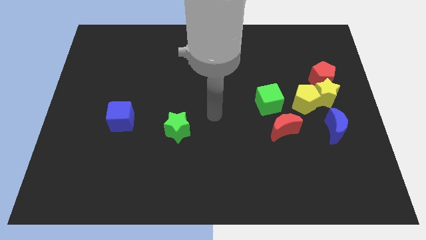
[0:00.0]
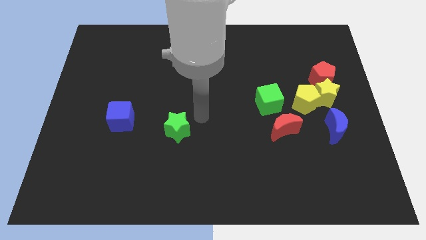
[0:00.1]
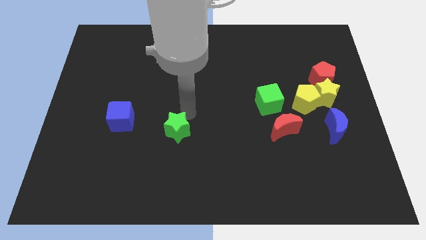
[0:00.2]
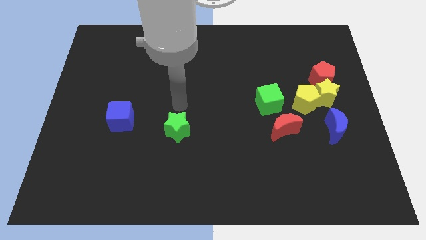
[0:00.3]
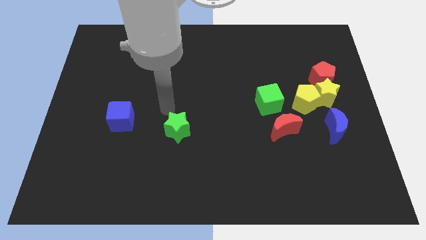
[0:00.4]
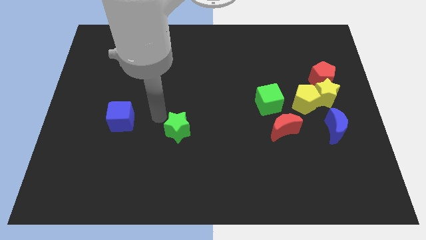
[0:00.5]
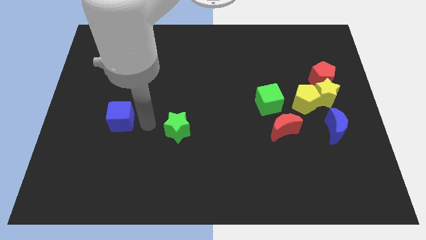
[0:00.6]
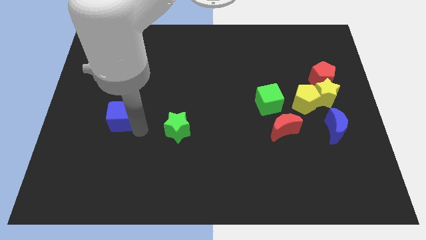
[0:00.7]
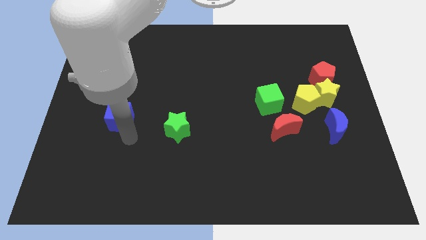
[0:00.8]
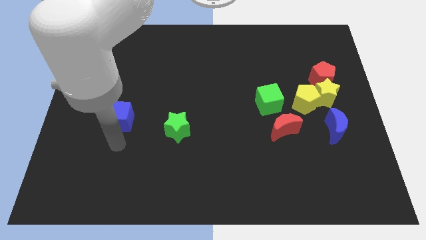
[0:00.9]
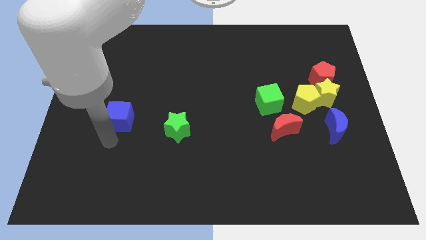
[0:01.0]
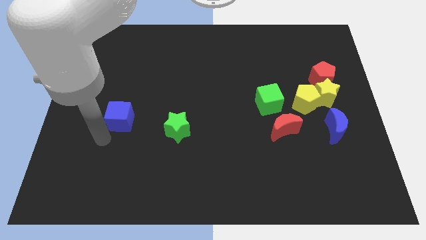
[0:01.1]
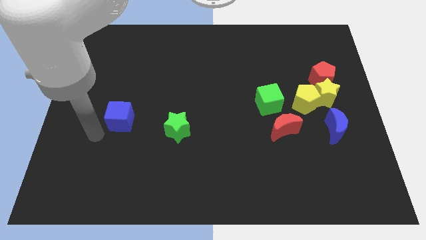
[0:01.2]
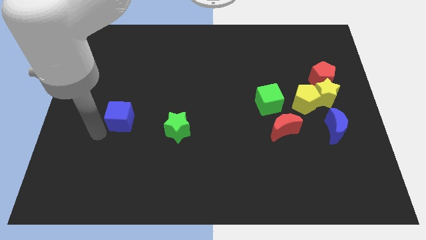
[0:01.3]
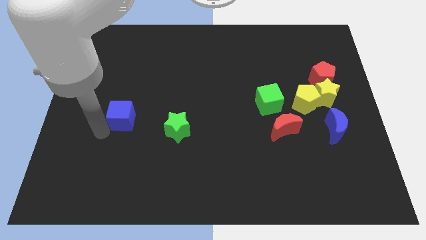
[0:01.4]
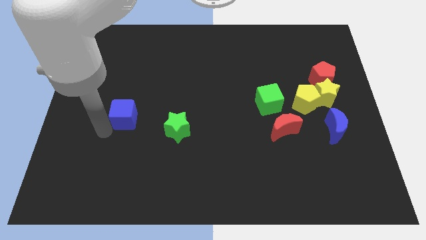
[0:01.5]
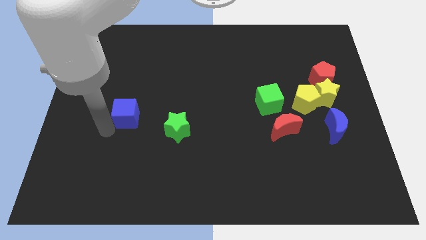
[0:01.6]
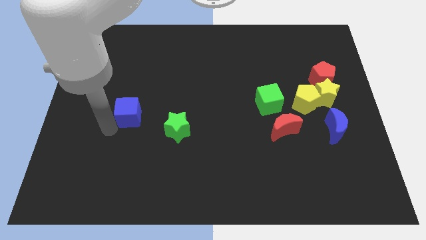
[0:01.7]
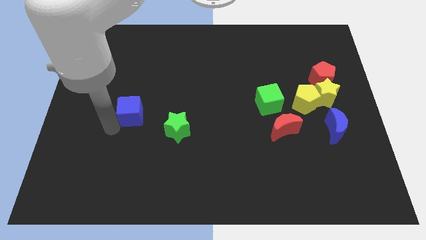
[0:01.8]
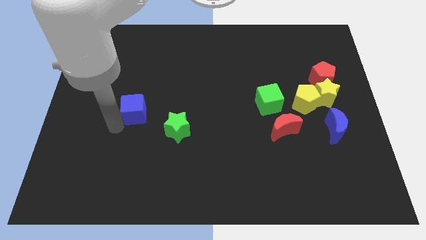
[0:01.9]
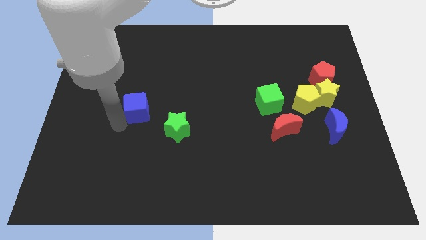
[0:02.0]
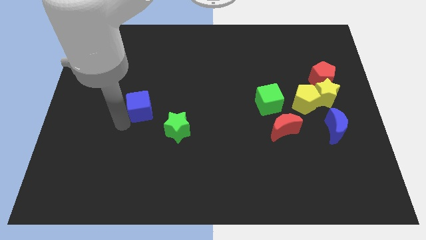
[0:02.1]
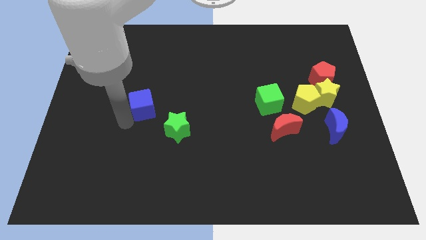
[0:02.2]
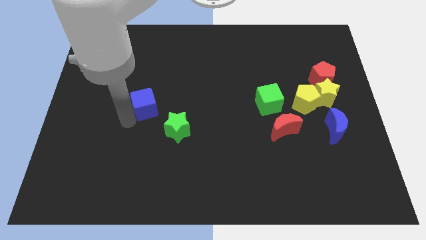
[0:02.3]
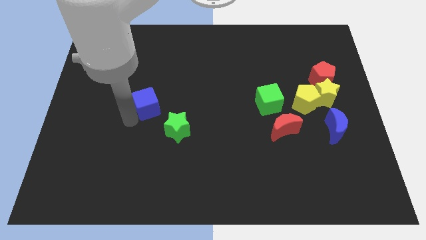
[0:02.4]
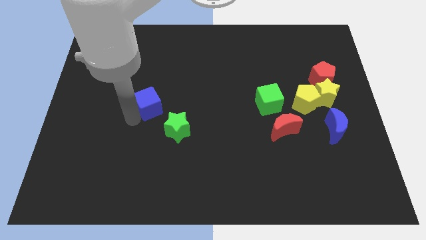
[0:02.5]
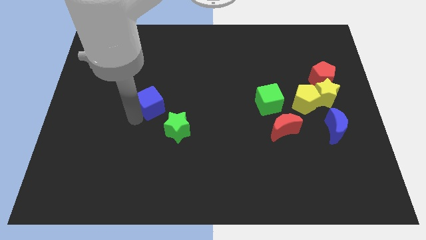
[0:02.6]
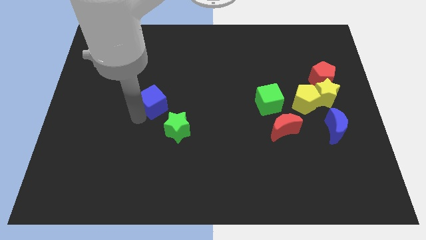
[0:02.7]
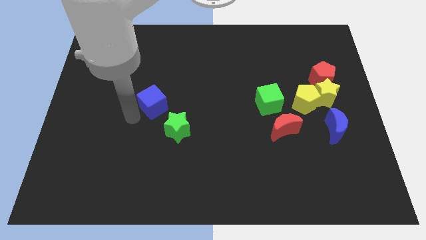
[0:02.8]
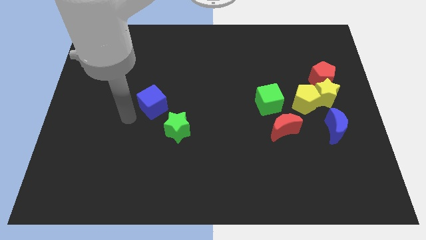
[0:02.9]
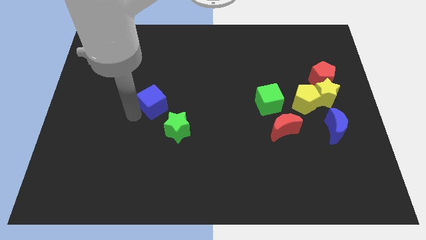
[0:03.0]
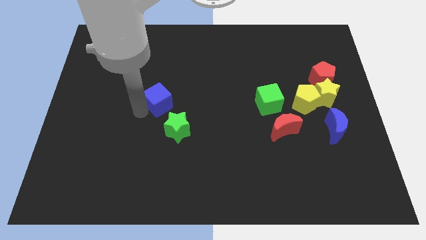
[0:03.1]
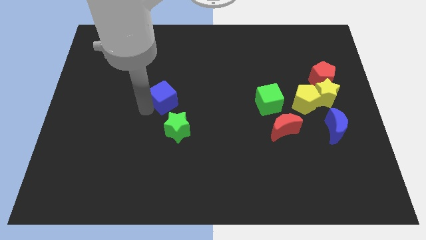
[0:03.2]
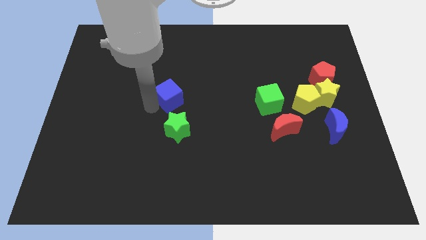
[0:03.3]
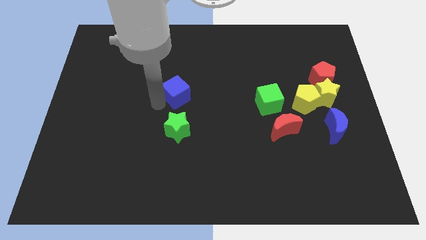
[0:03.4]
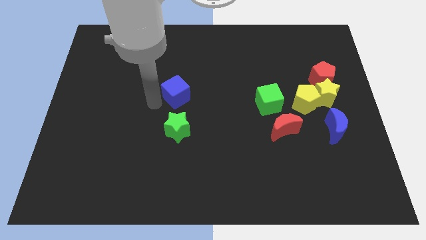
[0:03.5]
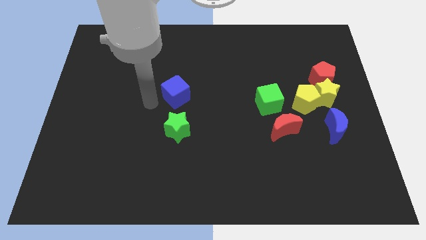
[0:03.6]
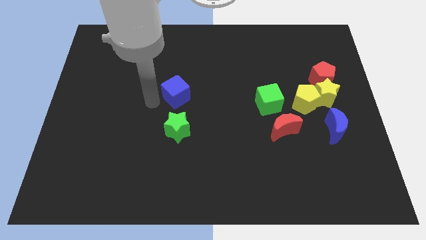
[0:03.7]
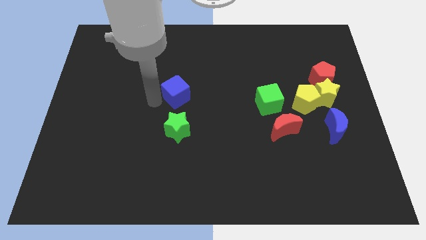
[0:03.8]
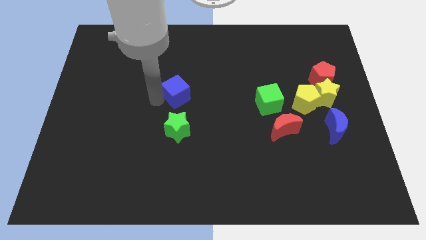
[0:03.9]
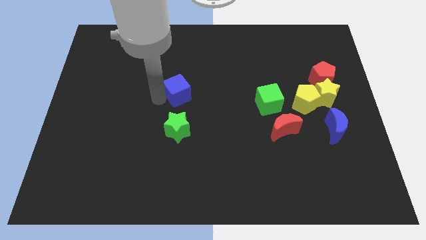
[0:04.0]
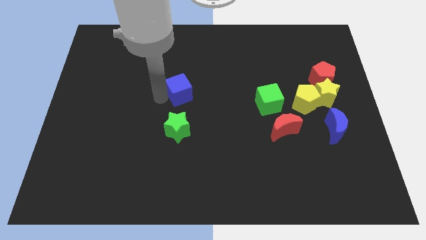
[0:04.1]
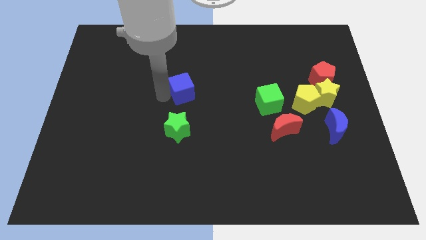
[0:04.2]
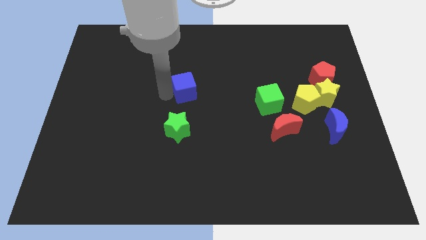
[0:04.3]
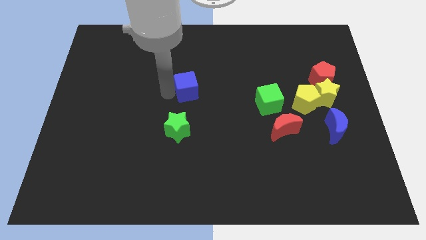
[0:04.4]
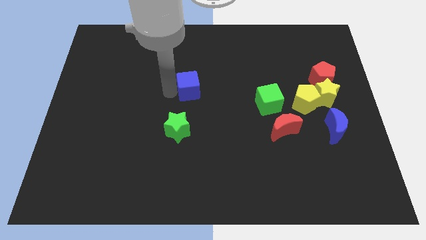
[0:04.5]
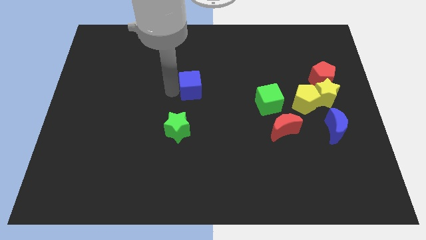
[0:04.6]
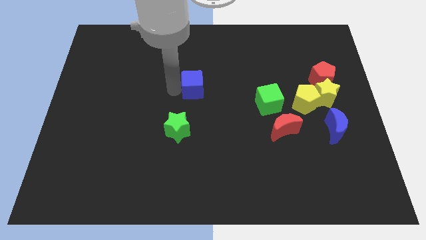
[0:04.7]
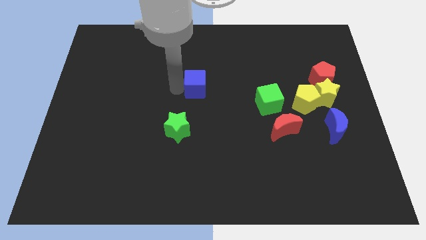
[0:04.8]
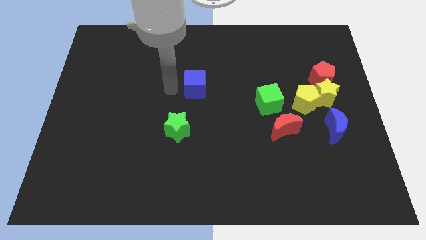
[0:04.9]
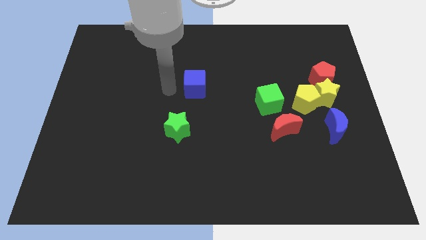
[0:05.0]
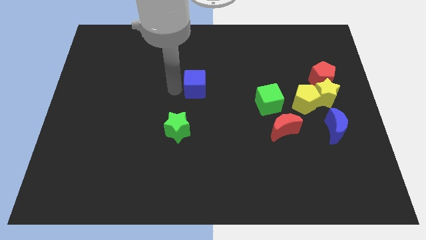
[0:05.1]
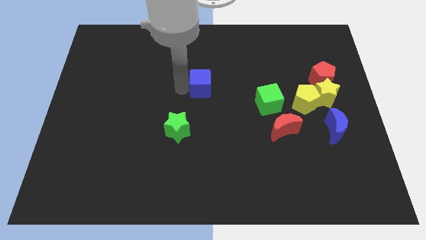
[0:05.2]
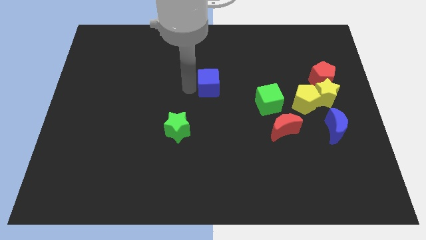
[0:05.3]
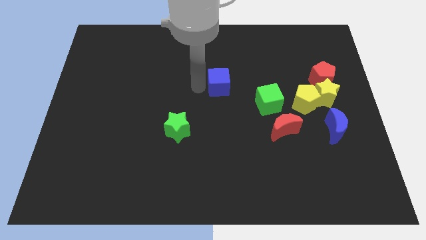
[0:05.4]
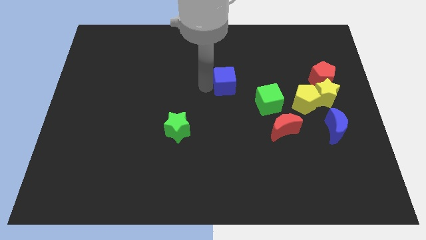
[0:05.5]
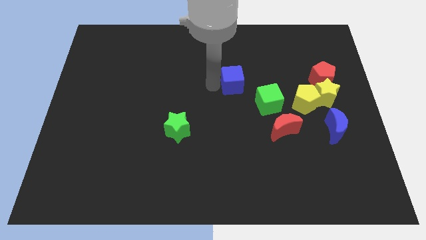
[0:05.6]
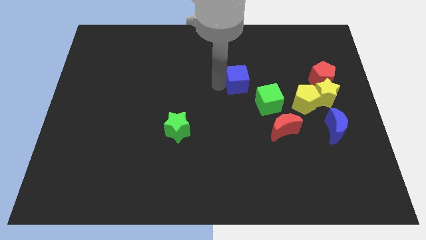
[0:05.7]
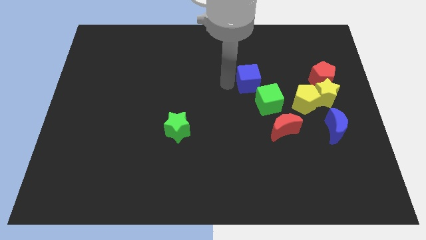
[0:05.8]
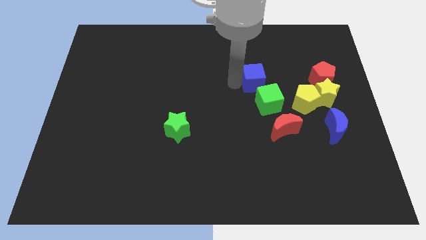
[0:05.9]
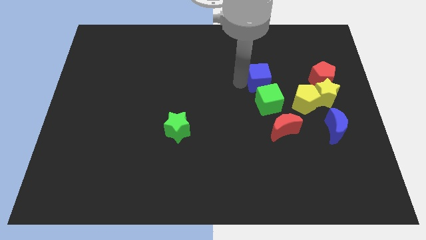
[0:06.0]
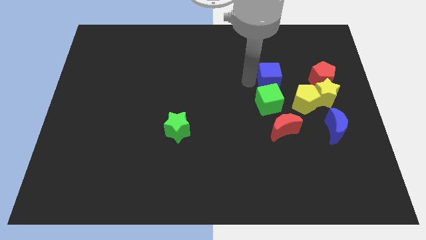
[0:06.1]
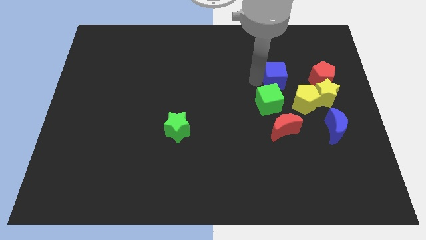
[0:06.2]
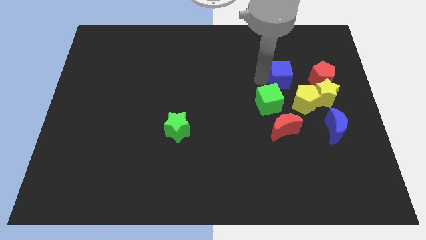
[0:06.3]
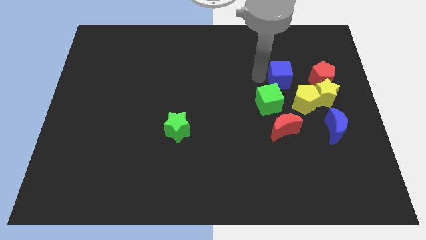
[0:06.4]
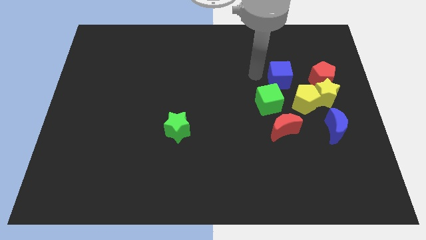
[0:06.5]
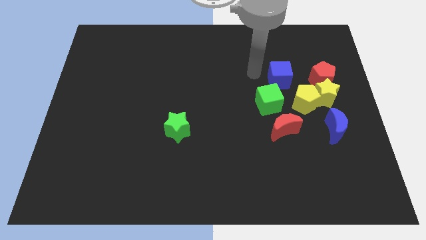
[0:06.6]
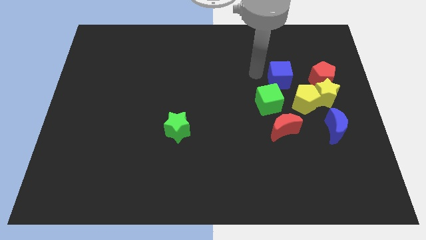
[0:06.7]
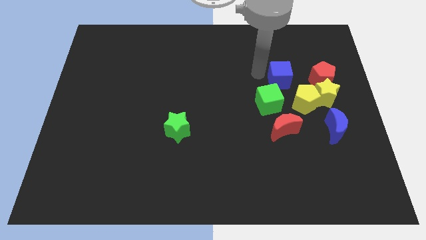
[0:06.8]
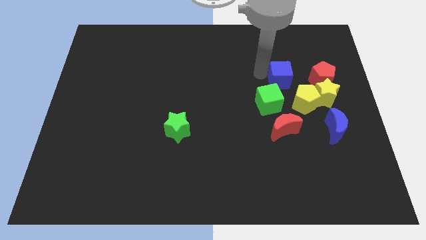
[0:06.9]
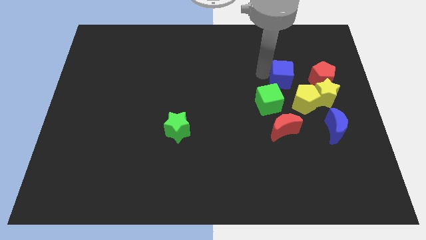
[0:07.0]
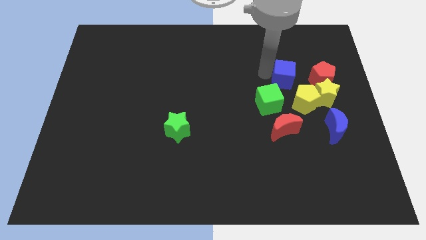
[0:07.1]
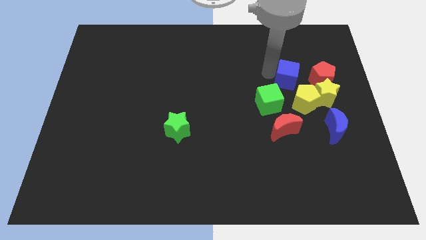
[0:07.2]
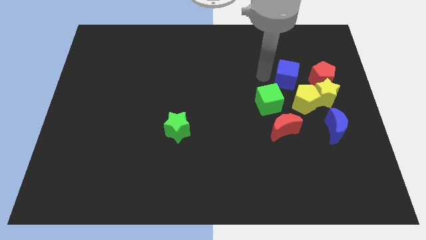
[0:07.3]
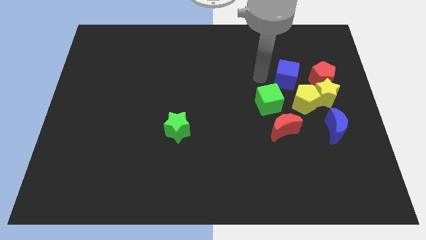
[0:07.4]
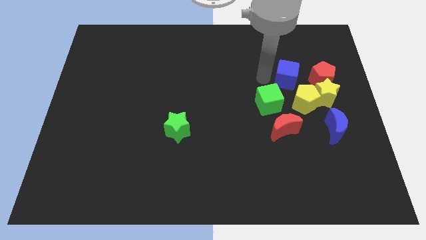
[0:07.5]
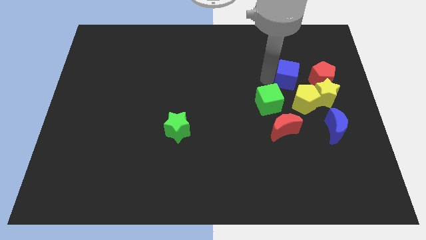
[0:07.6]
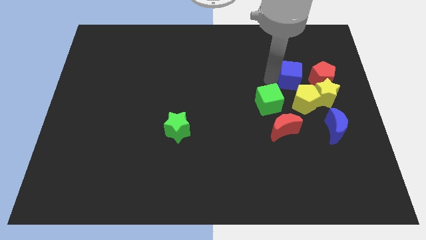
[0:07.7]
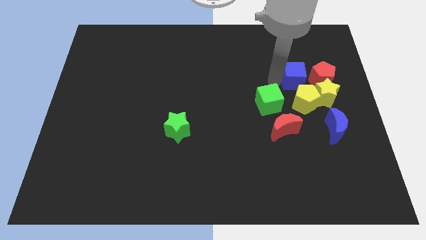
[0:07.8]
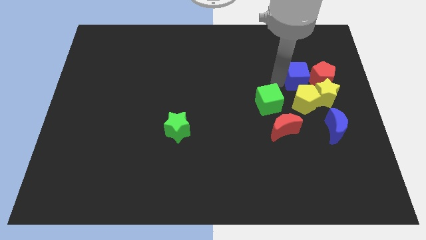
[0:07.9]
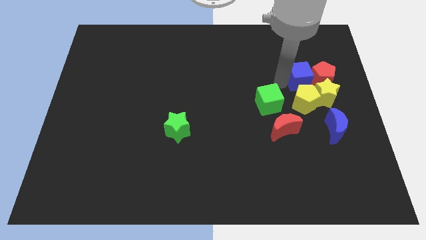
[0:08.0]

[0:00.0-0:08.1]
slide the blue cube towards the red pentagon
